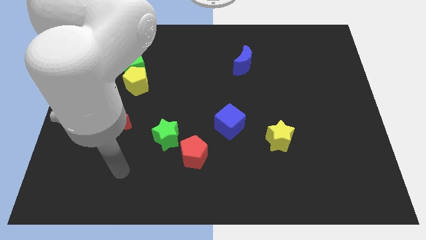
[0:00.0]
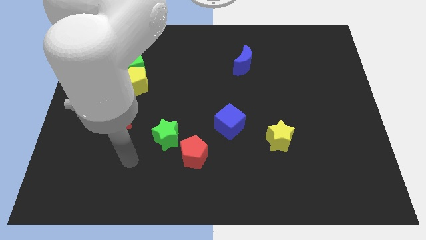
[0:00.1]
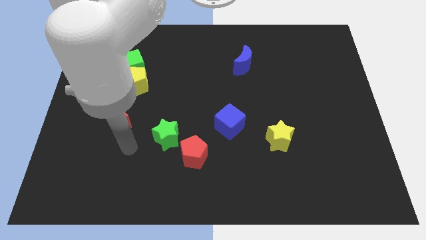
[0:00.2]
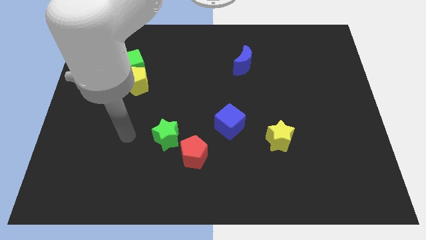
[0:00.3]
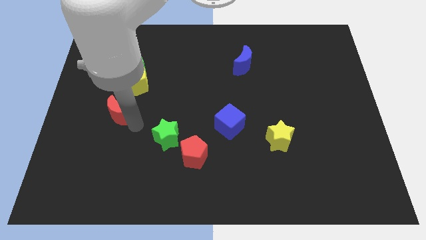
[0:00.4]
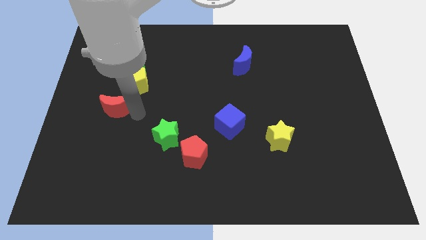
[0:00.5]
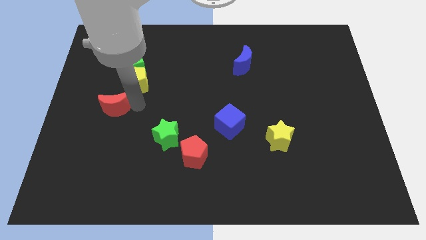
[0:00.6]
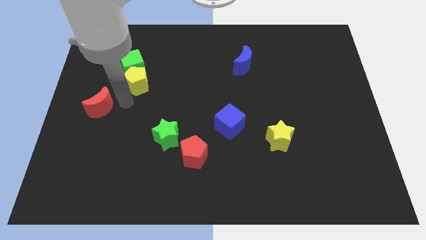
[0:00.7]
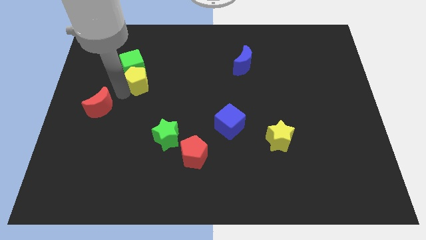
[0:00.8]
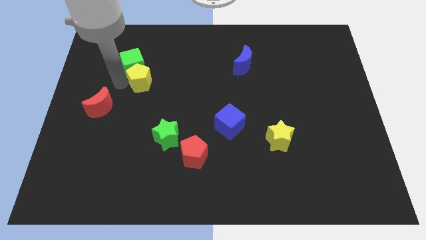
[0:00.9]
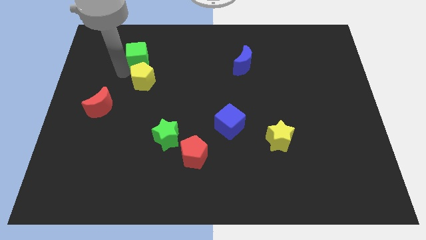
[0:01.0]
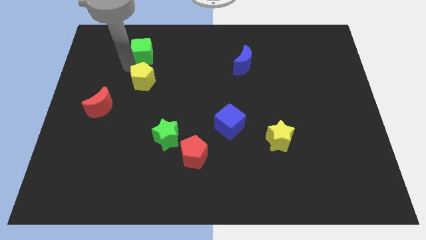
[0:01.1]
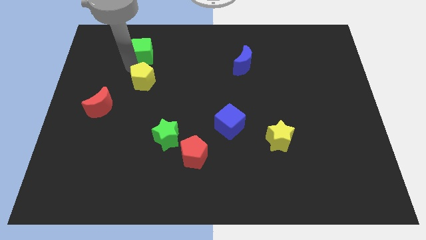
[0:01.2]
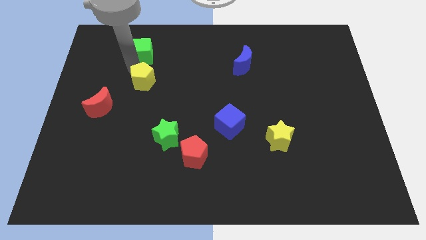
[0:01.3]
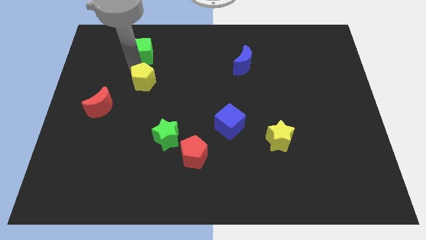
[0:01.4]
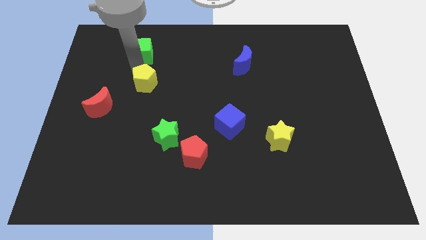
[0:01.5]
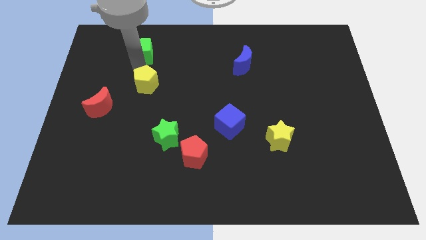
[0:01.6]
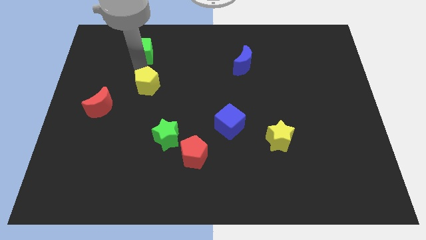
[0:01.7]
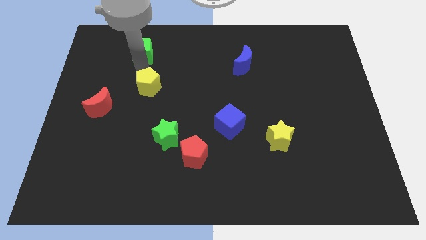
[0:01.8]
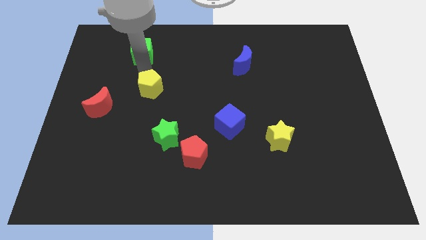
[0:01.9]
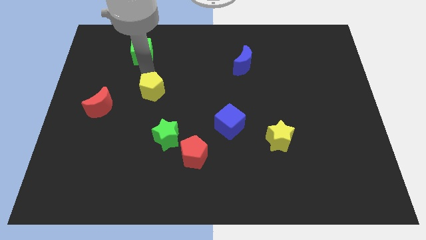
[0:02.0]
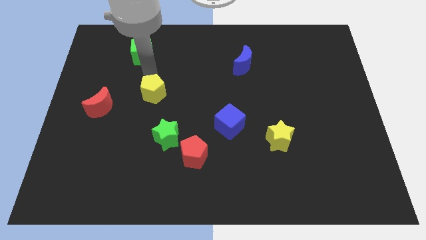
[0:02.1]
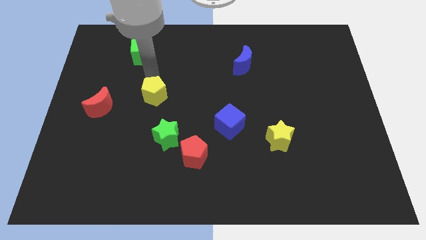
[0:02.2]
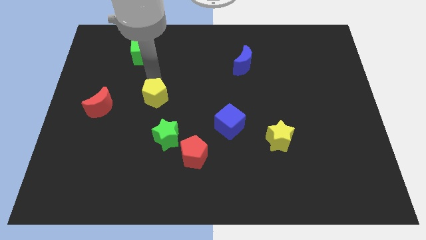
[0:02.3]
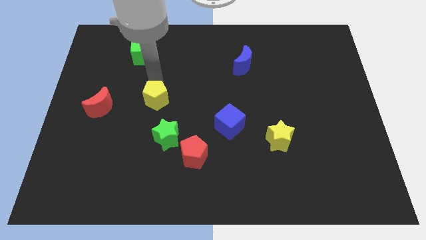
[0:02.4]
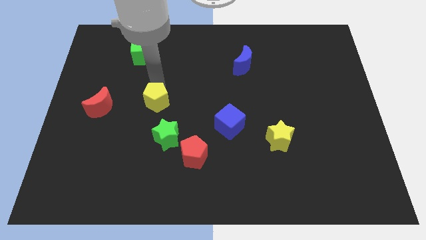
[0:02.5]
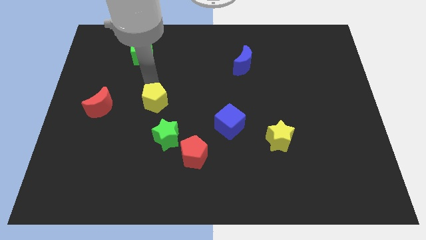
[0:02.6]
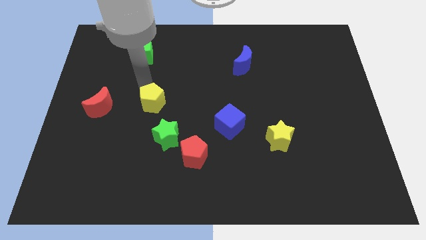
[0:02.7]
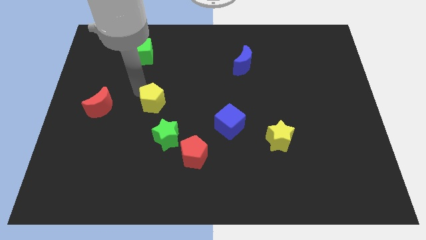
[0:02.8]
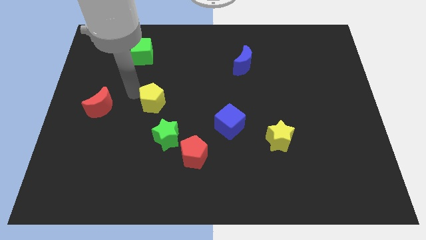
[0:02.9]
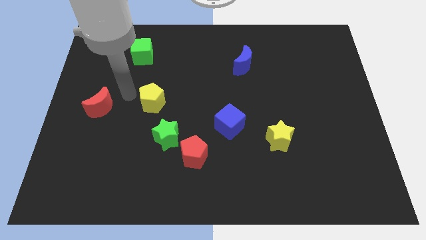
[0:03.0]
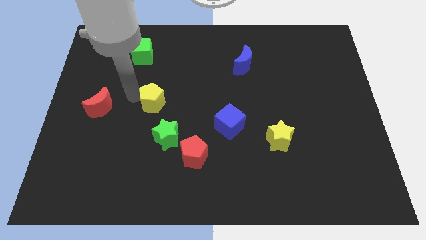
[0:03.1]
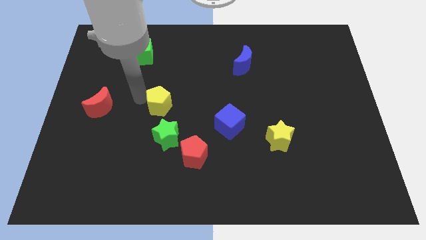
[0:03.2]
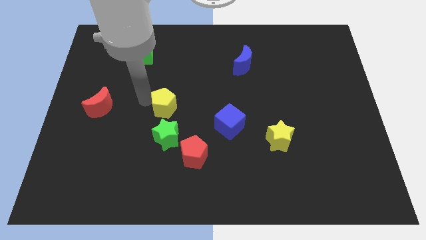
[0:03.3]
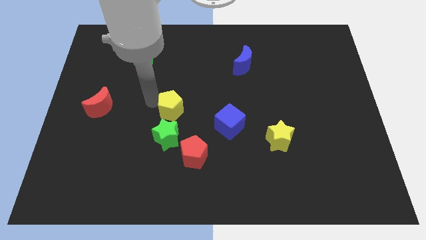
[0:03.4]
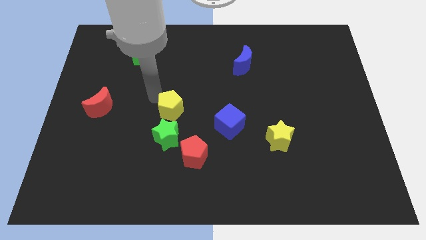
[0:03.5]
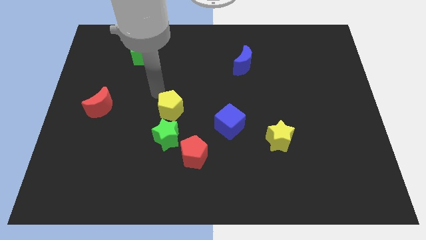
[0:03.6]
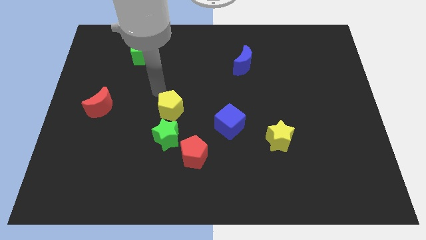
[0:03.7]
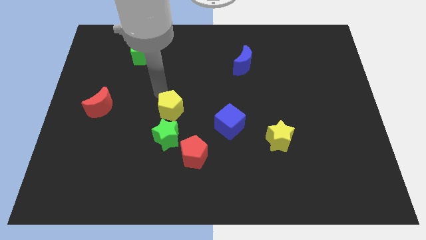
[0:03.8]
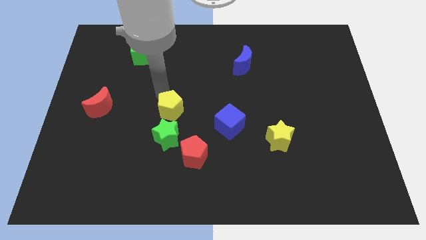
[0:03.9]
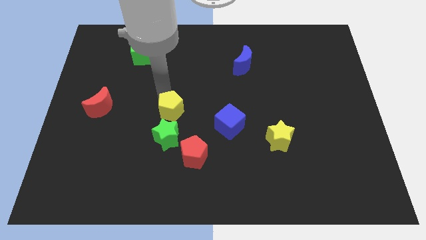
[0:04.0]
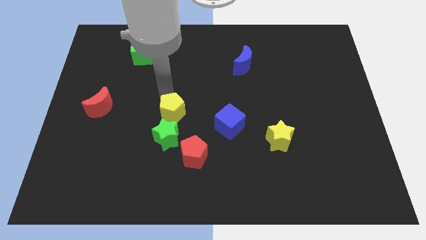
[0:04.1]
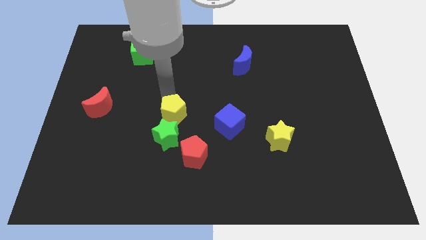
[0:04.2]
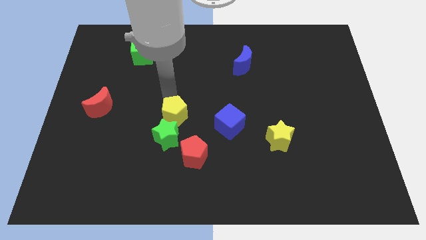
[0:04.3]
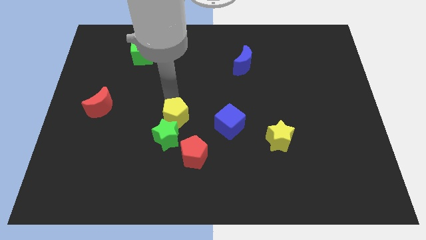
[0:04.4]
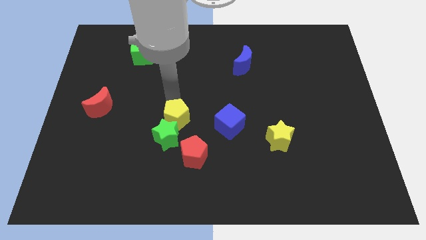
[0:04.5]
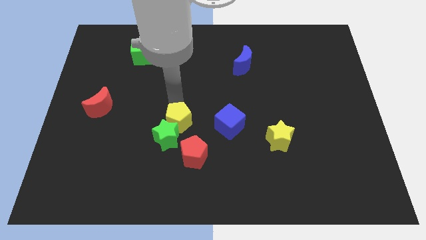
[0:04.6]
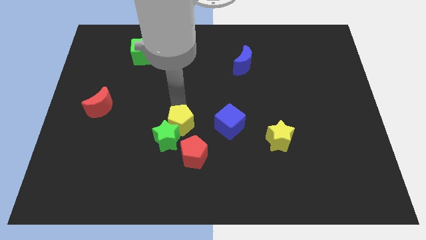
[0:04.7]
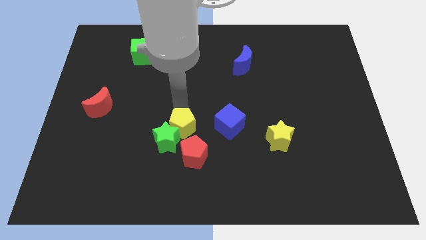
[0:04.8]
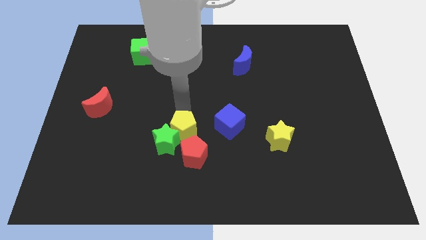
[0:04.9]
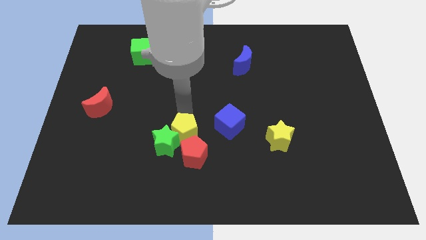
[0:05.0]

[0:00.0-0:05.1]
slide the yellow pentagon towards the red pentagon

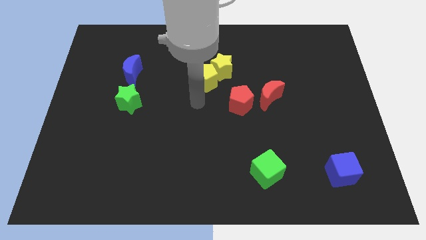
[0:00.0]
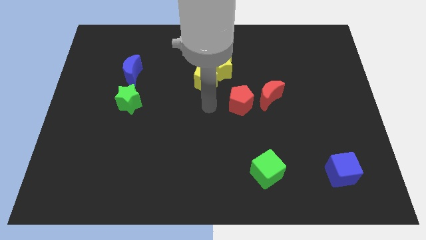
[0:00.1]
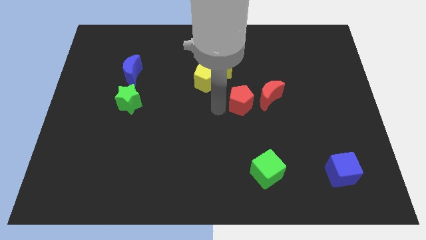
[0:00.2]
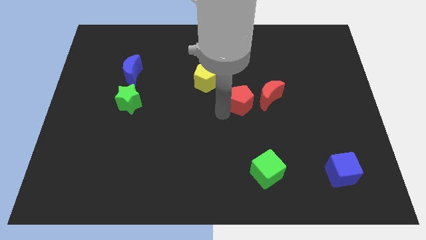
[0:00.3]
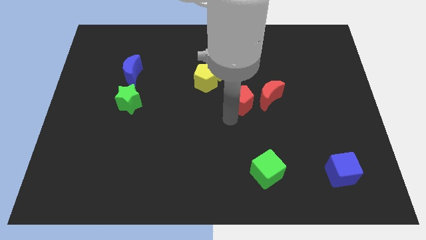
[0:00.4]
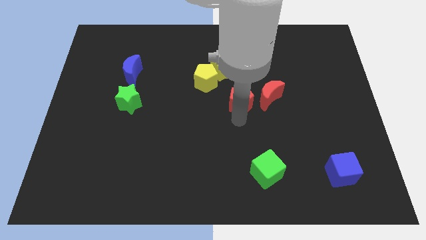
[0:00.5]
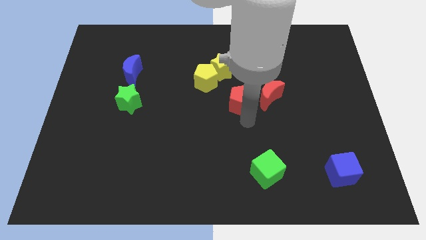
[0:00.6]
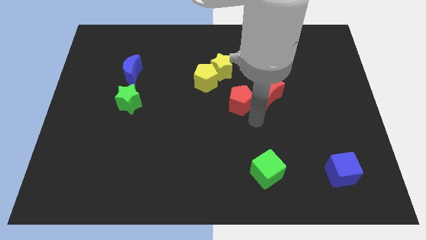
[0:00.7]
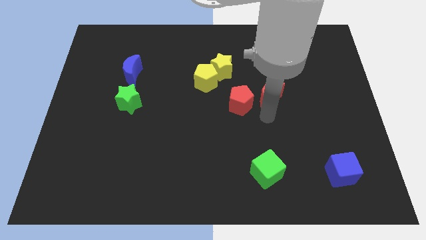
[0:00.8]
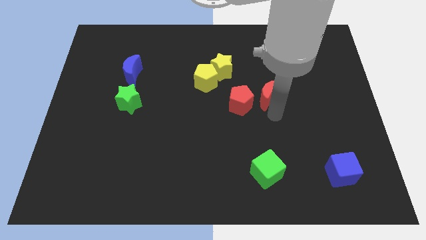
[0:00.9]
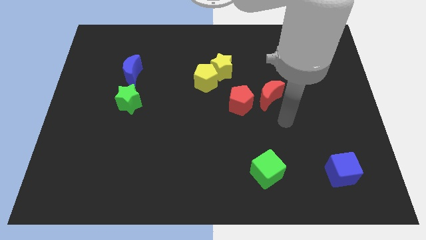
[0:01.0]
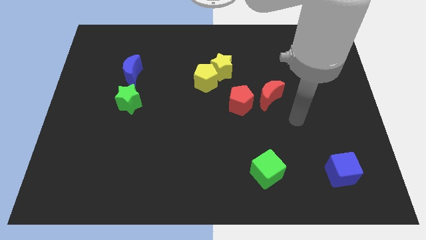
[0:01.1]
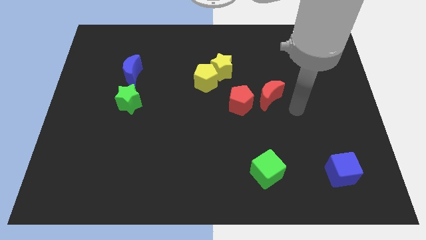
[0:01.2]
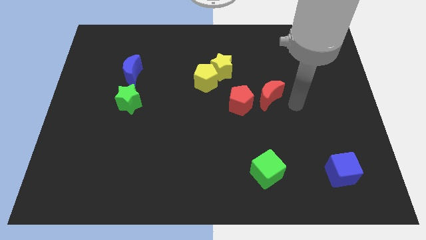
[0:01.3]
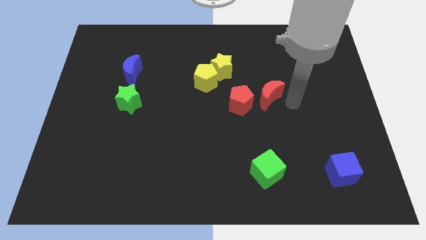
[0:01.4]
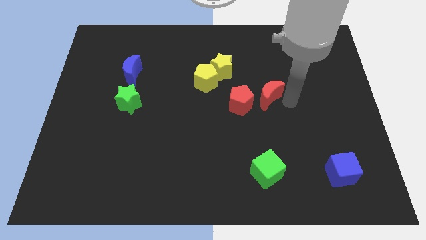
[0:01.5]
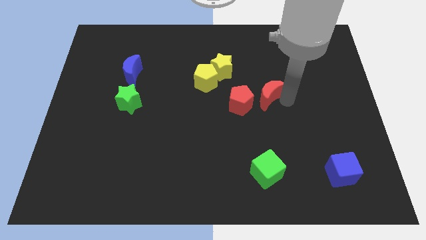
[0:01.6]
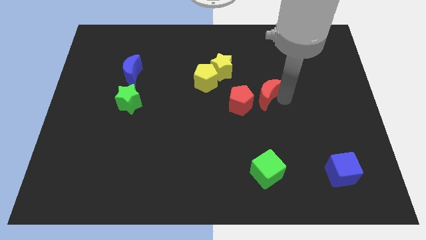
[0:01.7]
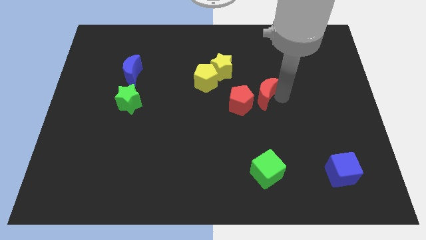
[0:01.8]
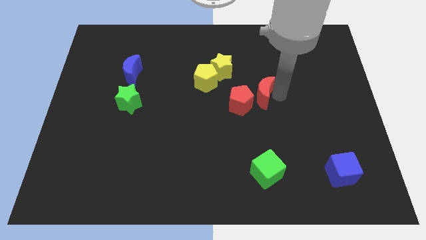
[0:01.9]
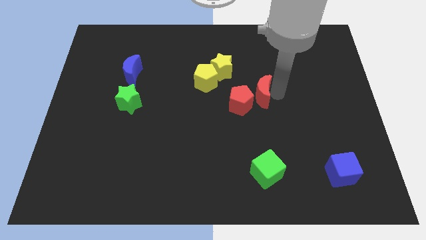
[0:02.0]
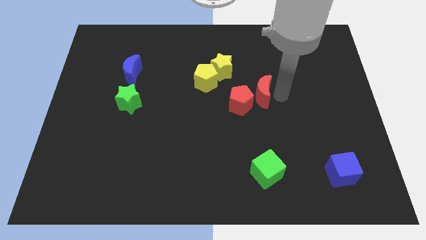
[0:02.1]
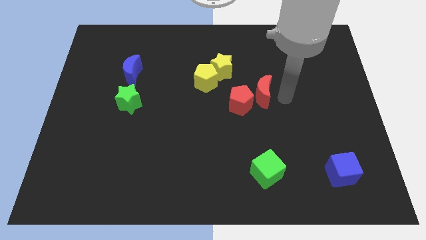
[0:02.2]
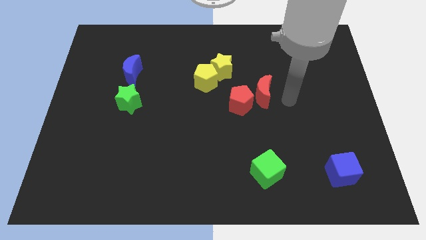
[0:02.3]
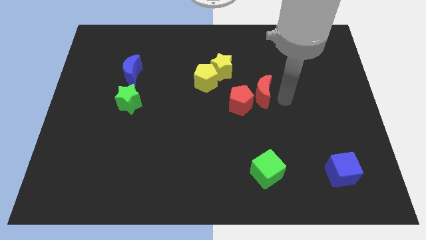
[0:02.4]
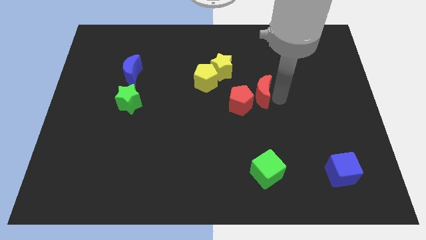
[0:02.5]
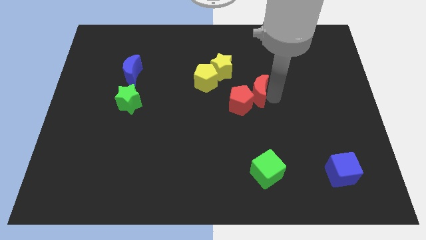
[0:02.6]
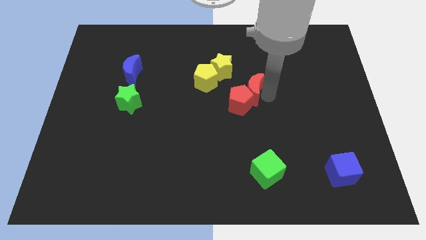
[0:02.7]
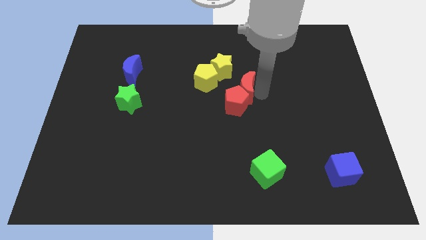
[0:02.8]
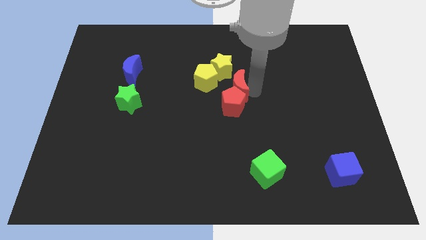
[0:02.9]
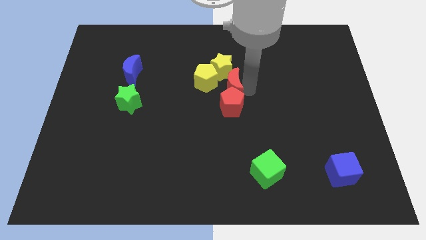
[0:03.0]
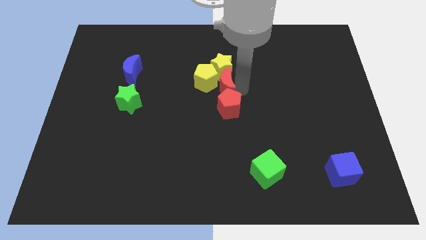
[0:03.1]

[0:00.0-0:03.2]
push the red moon next to the yellow pentagon
